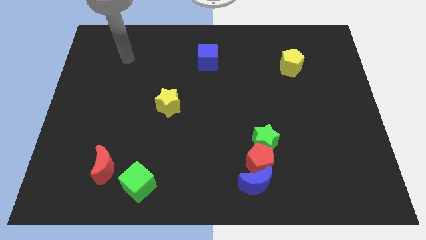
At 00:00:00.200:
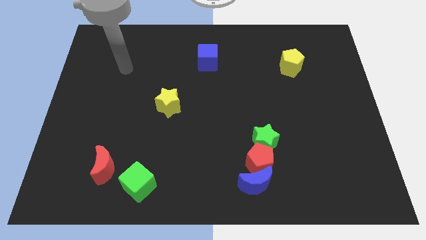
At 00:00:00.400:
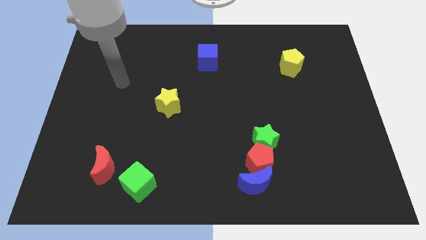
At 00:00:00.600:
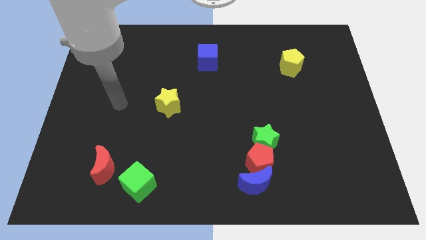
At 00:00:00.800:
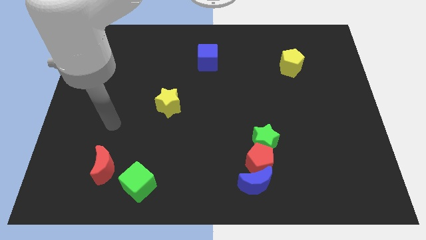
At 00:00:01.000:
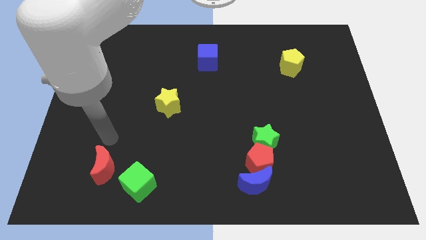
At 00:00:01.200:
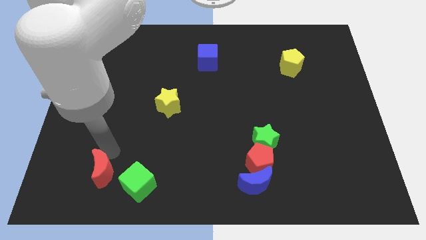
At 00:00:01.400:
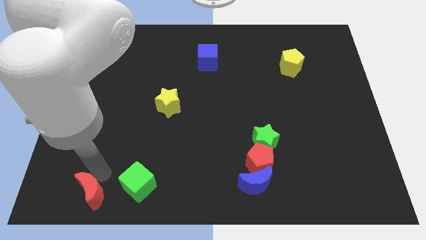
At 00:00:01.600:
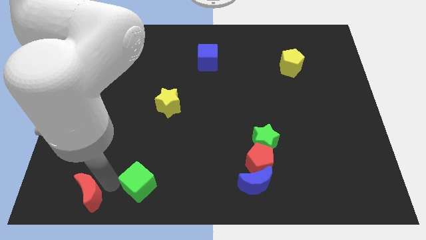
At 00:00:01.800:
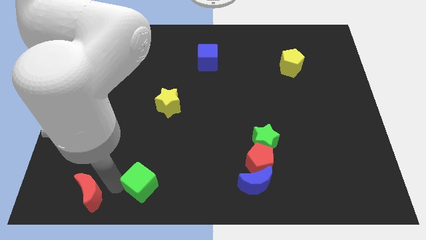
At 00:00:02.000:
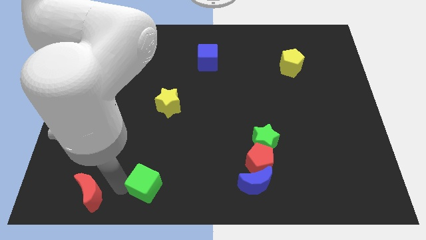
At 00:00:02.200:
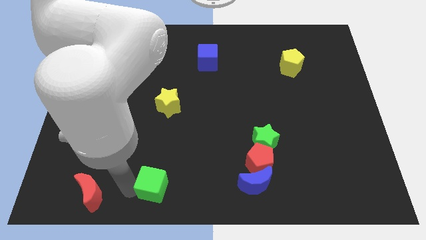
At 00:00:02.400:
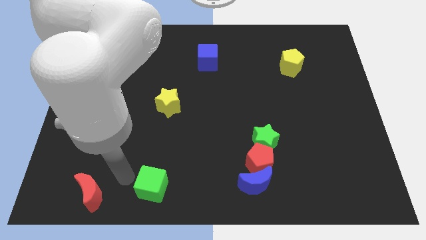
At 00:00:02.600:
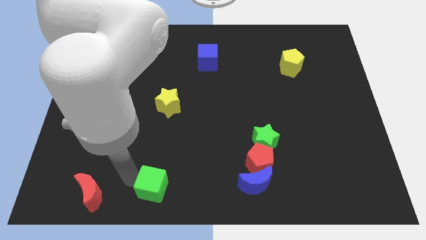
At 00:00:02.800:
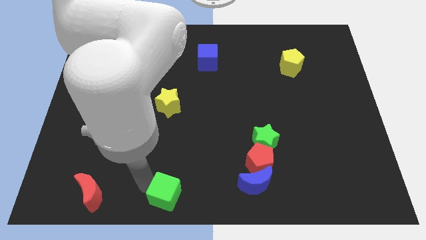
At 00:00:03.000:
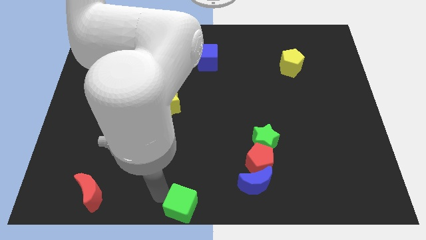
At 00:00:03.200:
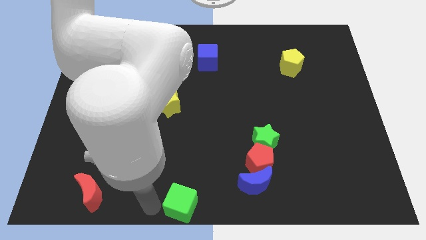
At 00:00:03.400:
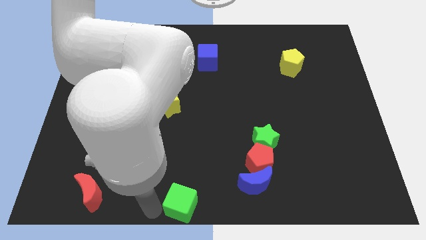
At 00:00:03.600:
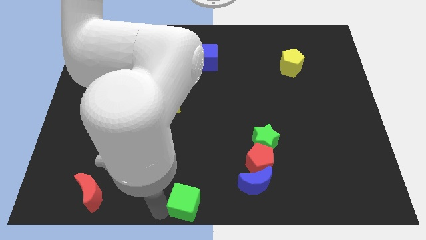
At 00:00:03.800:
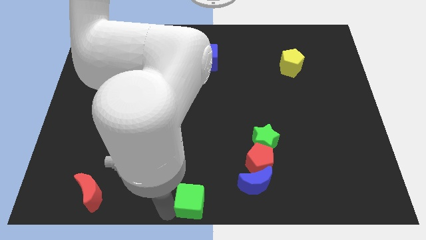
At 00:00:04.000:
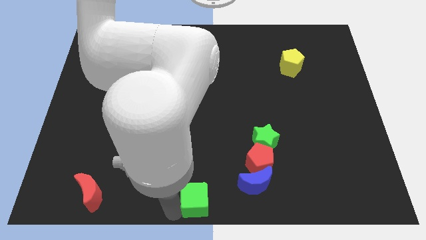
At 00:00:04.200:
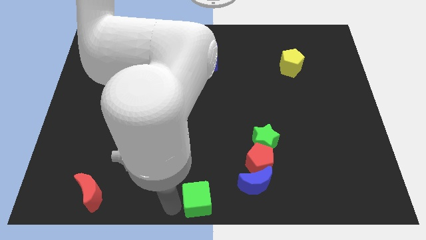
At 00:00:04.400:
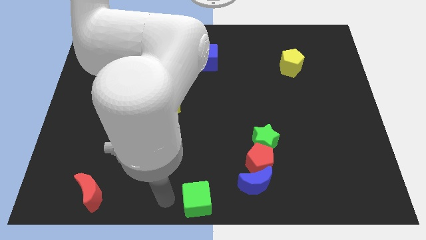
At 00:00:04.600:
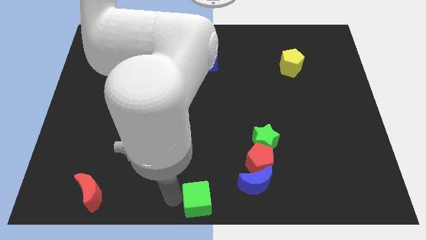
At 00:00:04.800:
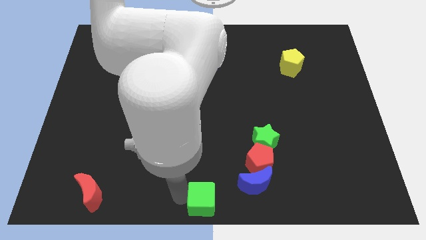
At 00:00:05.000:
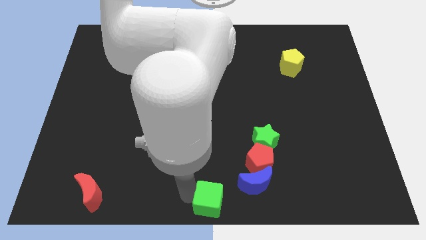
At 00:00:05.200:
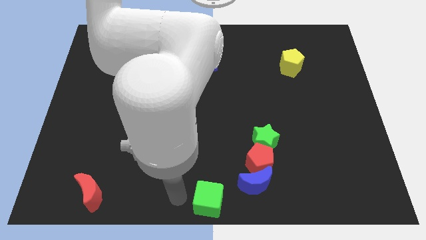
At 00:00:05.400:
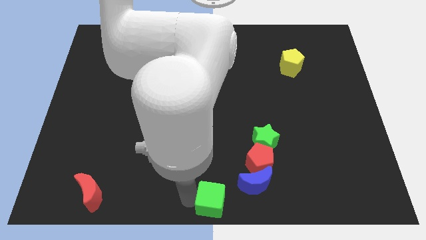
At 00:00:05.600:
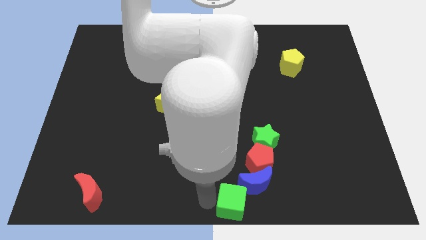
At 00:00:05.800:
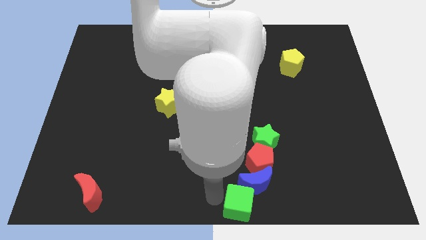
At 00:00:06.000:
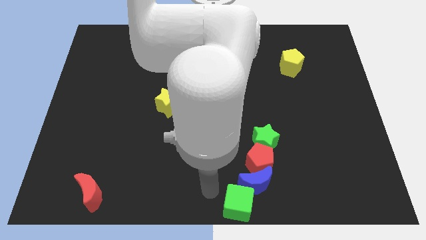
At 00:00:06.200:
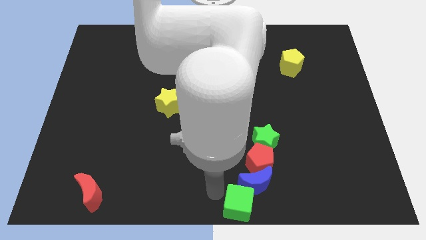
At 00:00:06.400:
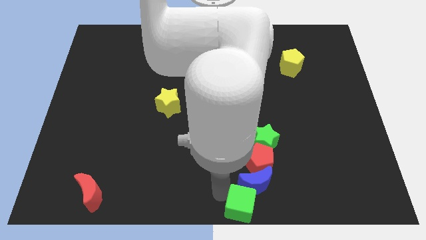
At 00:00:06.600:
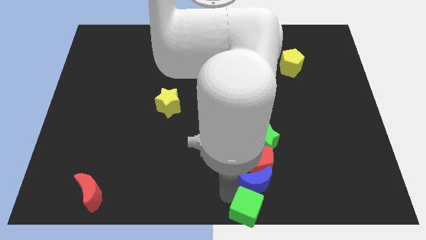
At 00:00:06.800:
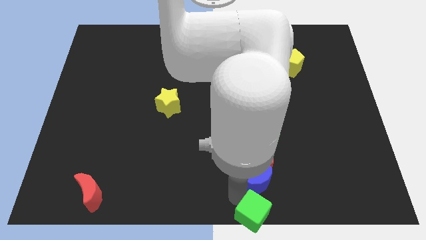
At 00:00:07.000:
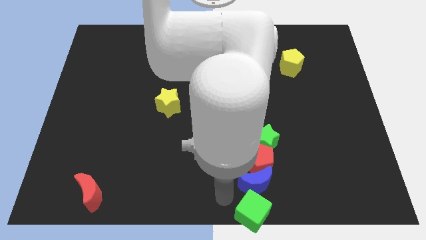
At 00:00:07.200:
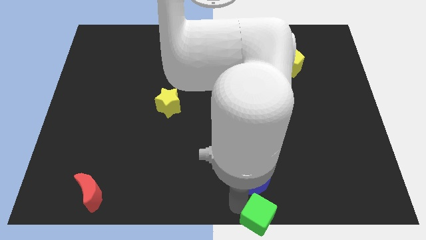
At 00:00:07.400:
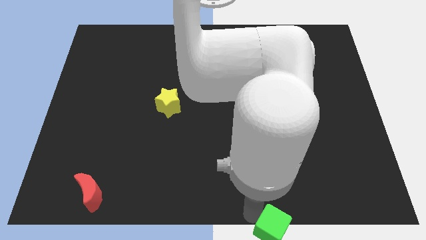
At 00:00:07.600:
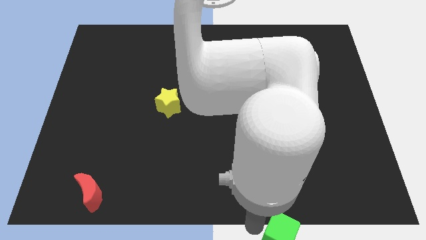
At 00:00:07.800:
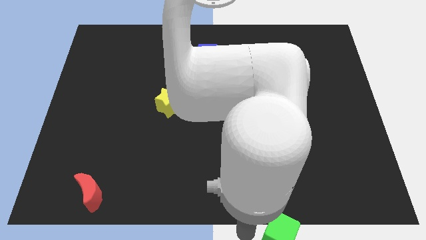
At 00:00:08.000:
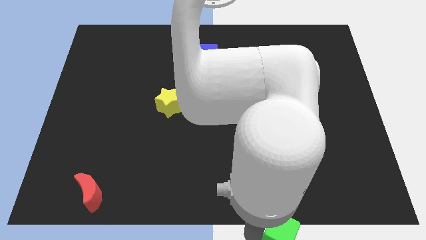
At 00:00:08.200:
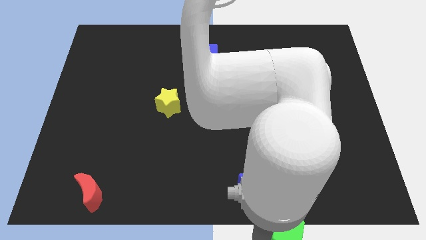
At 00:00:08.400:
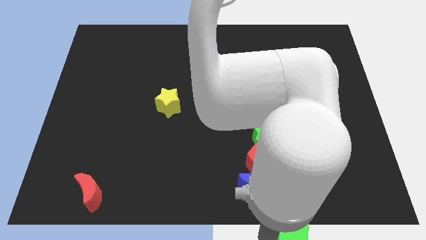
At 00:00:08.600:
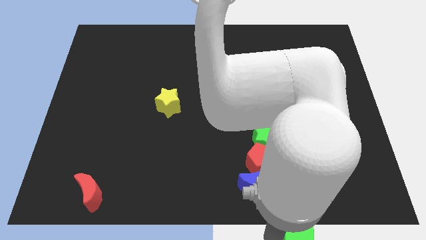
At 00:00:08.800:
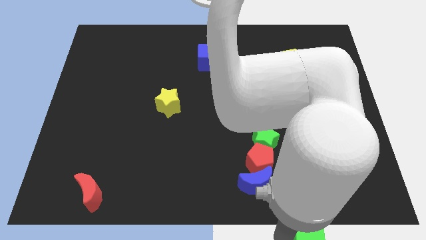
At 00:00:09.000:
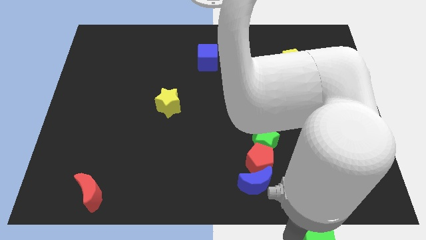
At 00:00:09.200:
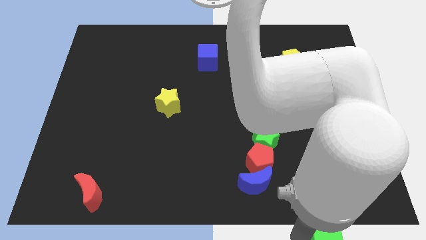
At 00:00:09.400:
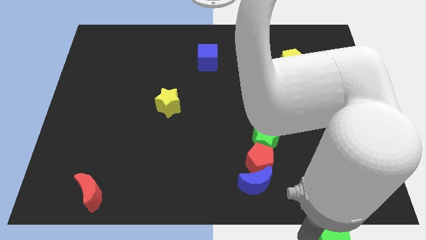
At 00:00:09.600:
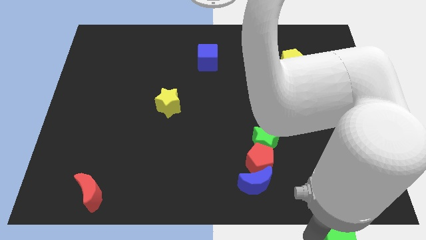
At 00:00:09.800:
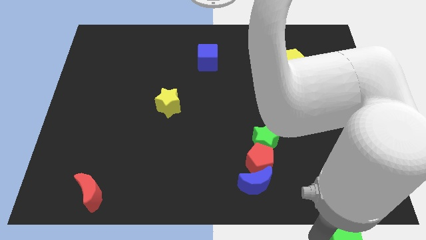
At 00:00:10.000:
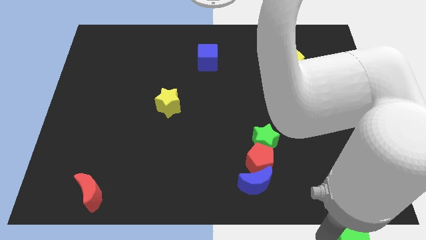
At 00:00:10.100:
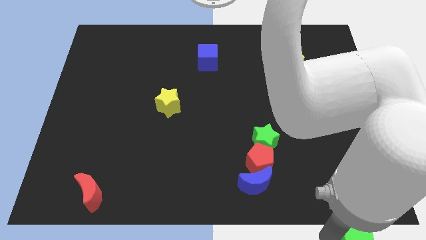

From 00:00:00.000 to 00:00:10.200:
move the green cube to the bottom right of the board

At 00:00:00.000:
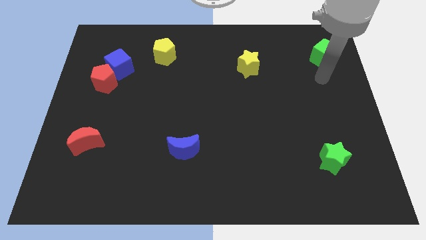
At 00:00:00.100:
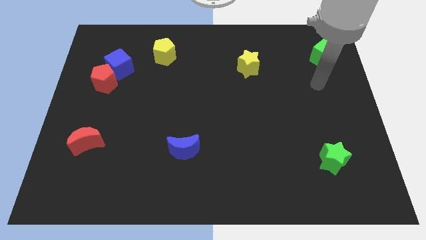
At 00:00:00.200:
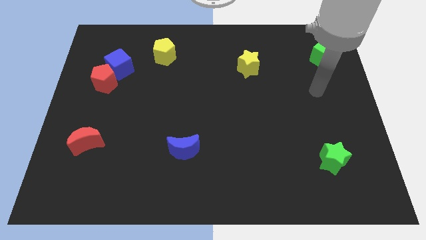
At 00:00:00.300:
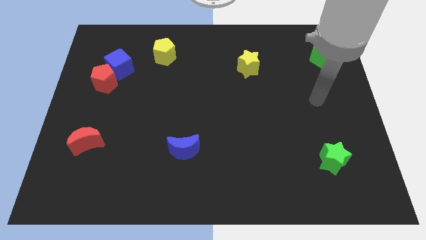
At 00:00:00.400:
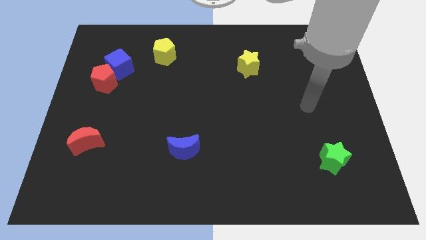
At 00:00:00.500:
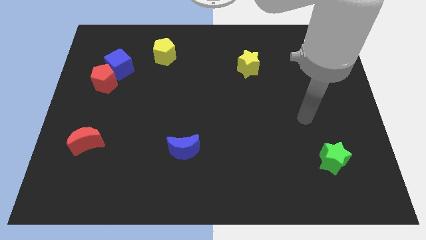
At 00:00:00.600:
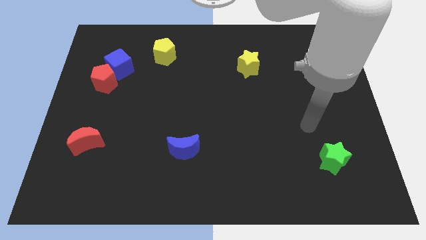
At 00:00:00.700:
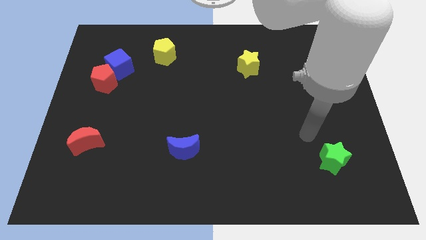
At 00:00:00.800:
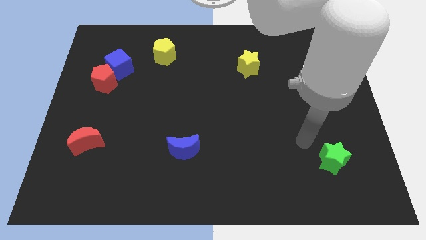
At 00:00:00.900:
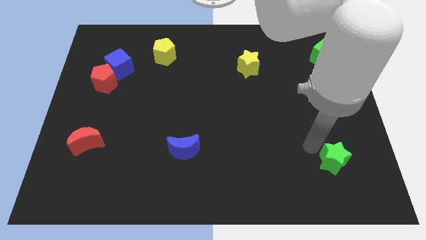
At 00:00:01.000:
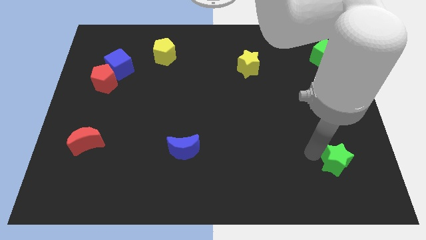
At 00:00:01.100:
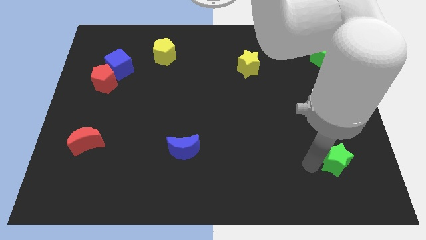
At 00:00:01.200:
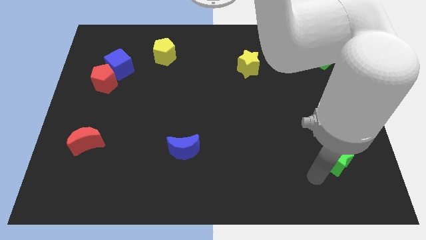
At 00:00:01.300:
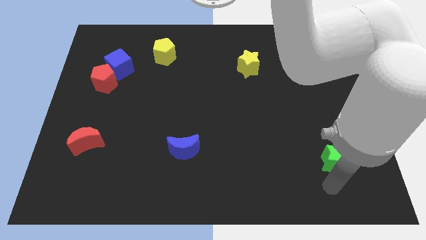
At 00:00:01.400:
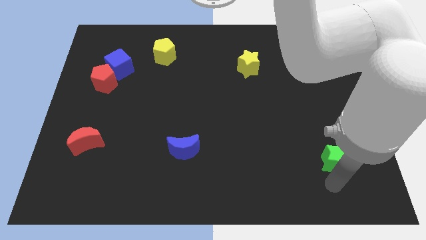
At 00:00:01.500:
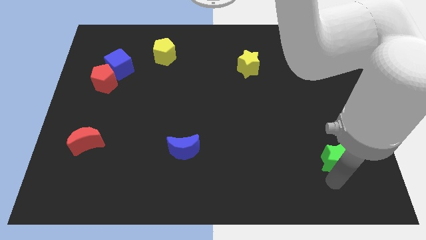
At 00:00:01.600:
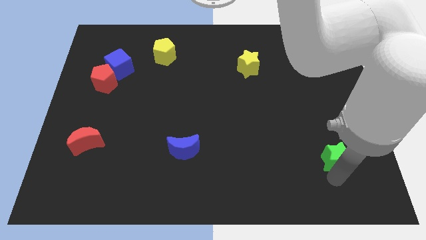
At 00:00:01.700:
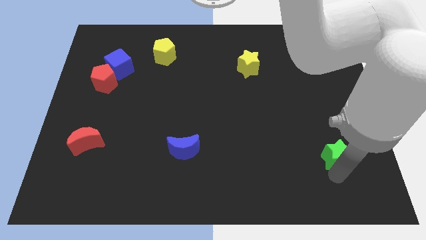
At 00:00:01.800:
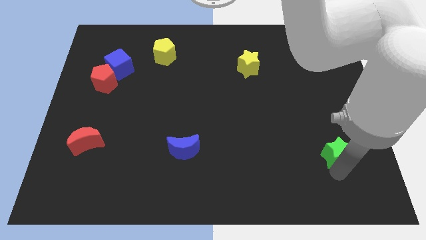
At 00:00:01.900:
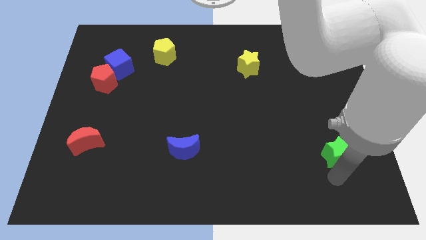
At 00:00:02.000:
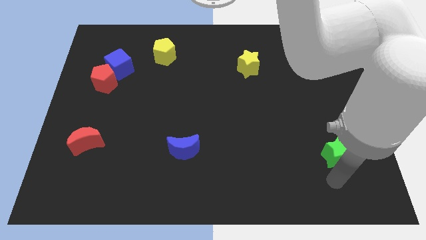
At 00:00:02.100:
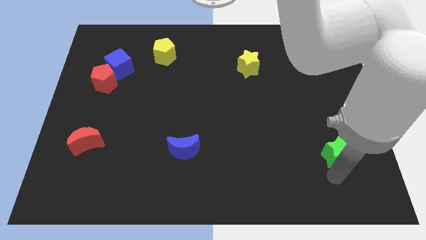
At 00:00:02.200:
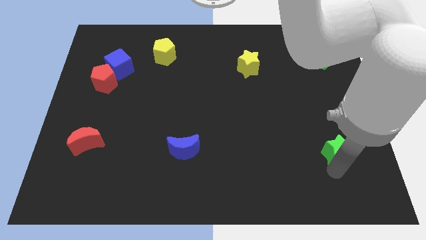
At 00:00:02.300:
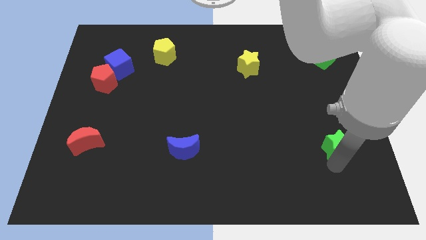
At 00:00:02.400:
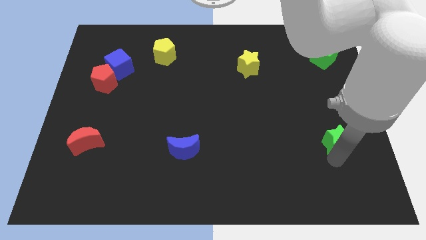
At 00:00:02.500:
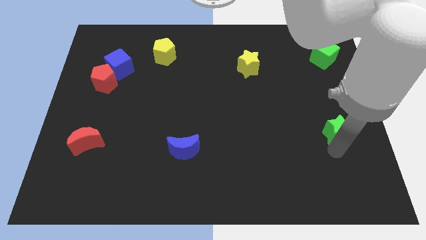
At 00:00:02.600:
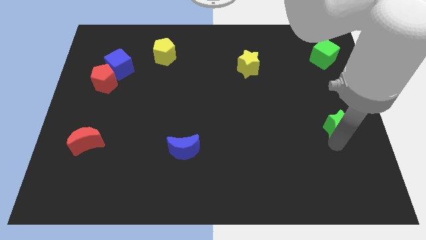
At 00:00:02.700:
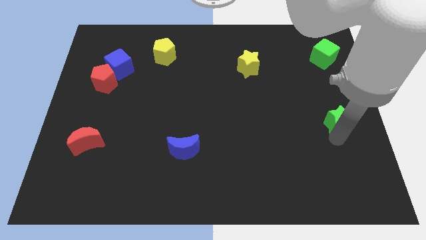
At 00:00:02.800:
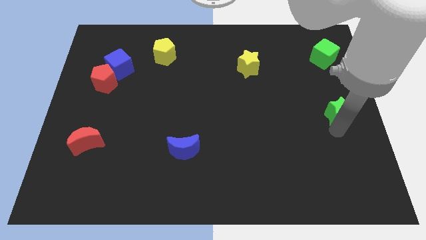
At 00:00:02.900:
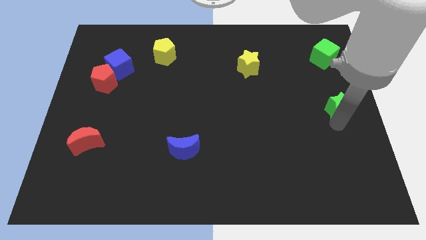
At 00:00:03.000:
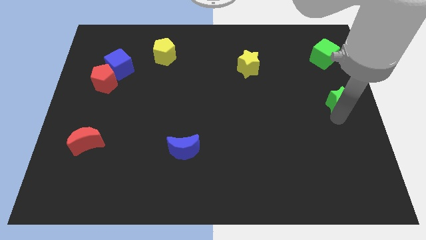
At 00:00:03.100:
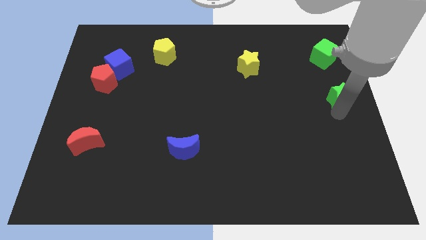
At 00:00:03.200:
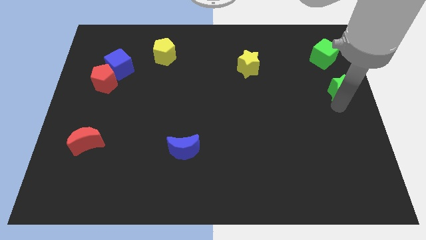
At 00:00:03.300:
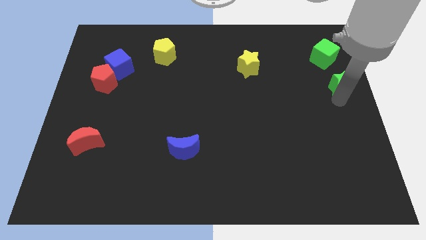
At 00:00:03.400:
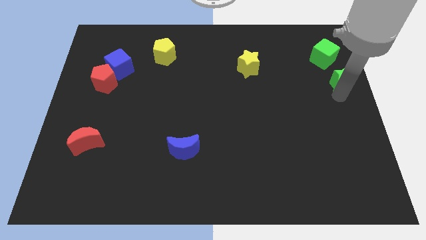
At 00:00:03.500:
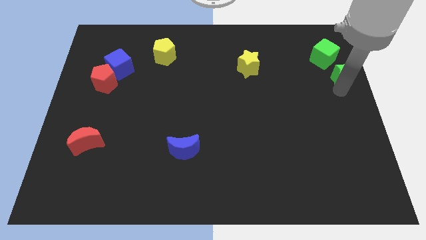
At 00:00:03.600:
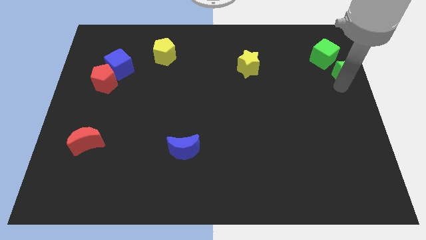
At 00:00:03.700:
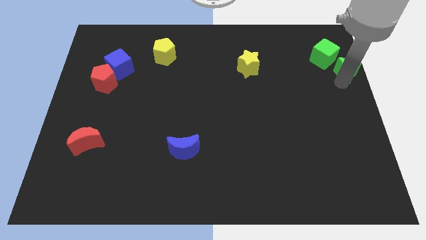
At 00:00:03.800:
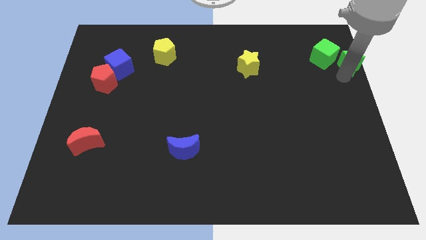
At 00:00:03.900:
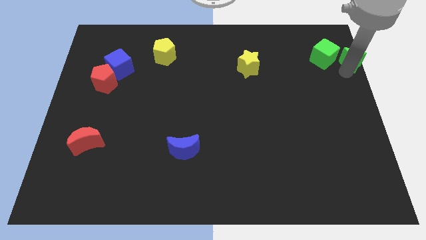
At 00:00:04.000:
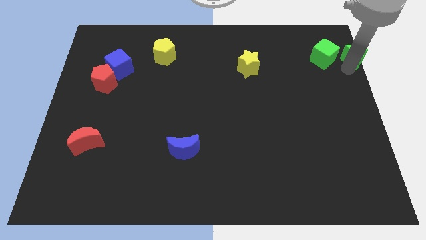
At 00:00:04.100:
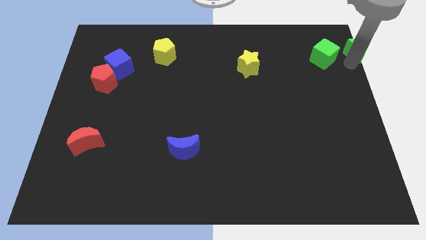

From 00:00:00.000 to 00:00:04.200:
move the green star to the upper right corner
